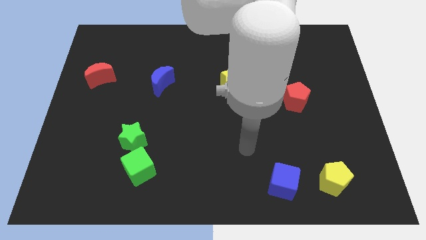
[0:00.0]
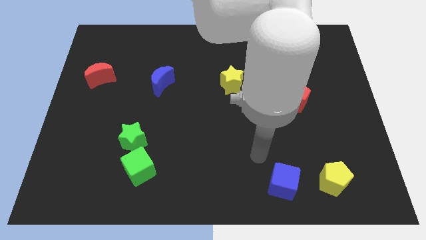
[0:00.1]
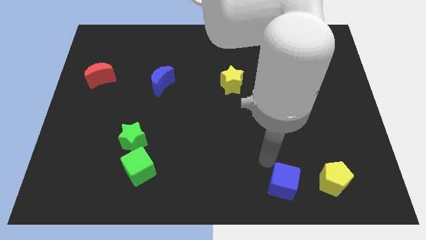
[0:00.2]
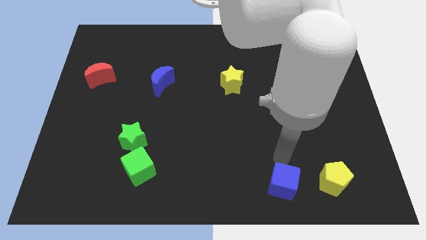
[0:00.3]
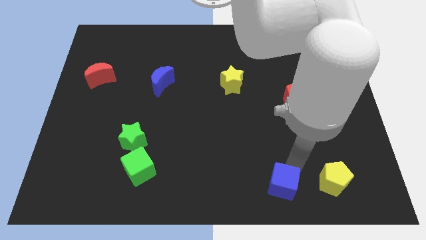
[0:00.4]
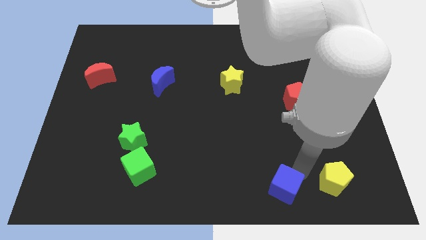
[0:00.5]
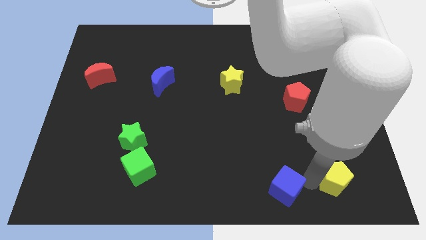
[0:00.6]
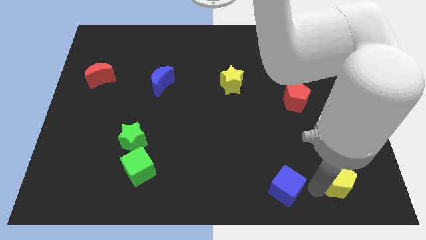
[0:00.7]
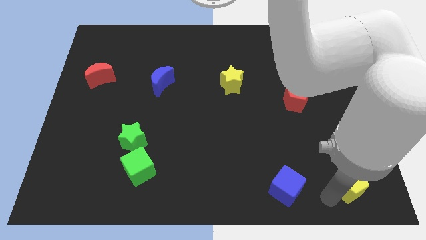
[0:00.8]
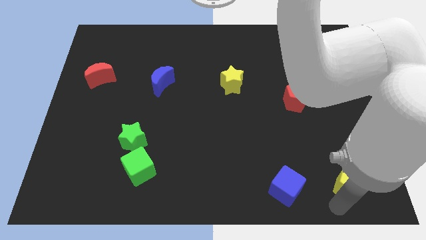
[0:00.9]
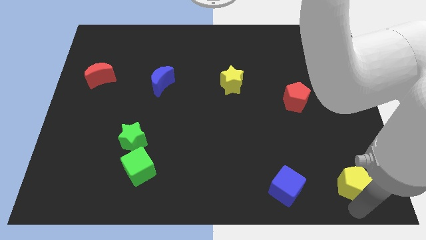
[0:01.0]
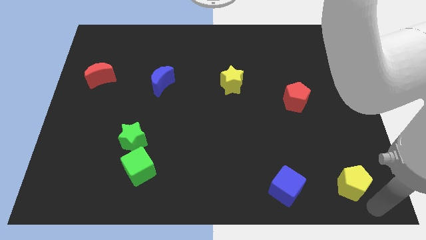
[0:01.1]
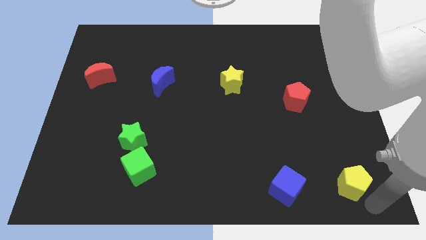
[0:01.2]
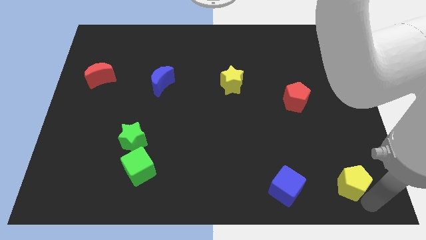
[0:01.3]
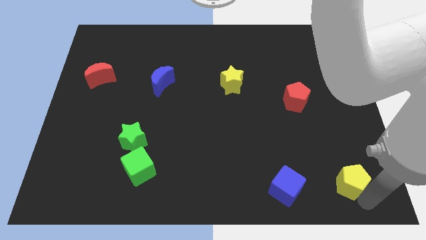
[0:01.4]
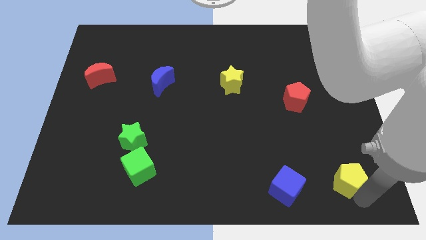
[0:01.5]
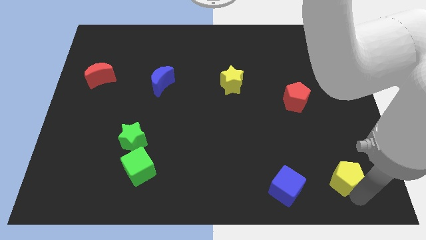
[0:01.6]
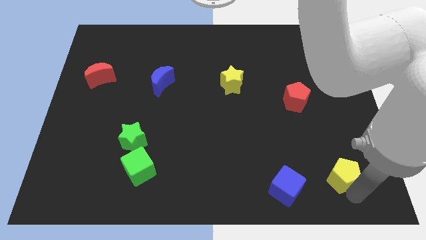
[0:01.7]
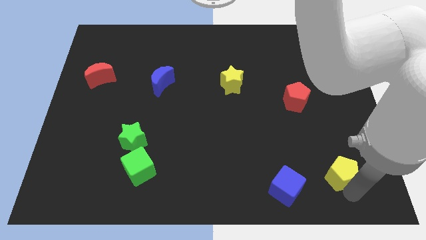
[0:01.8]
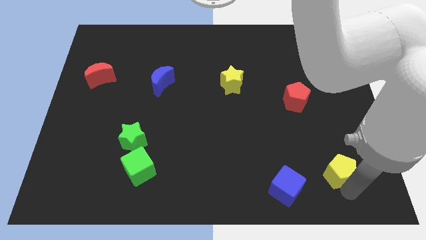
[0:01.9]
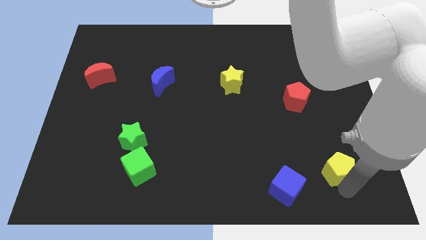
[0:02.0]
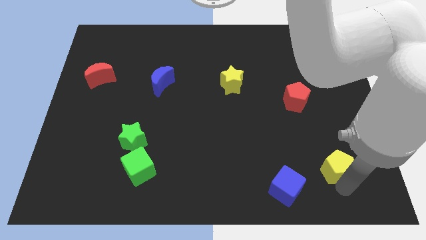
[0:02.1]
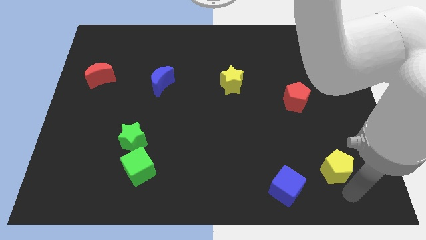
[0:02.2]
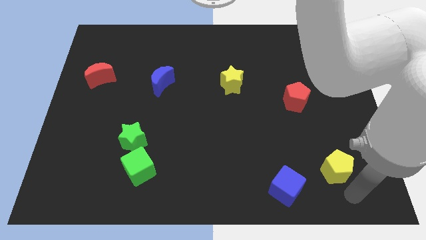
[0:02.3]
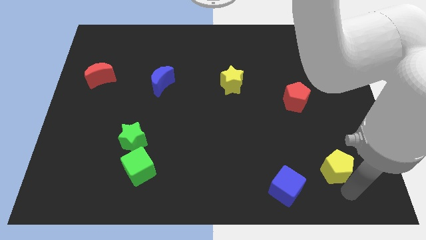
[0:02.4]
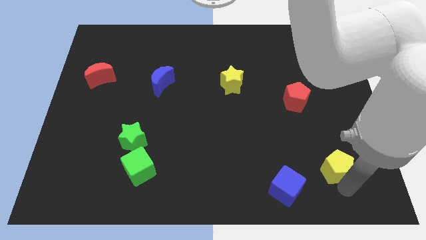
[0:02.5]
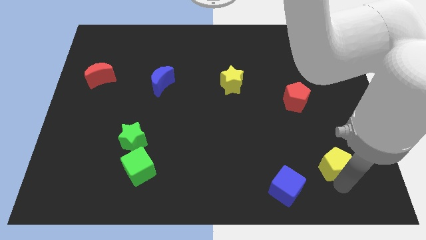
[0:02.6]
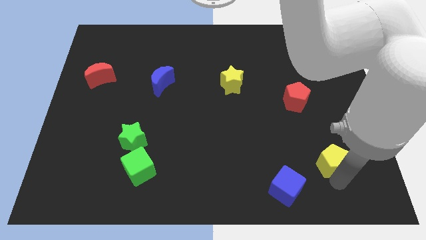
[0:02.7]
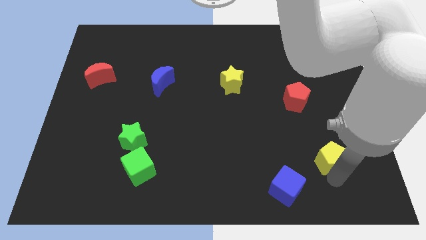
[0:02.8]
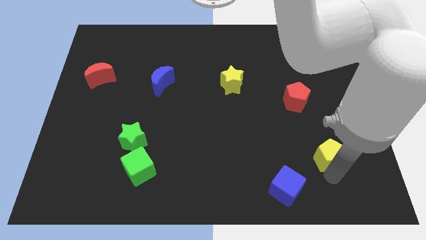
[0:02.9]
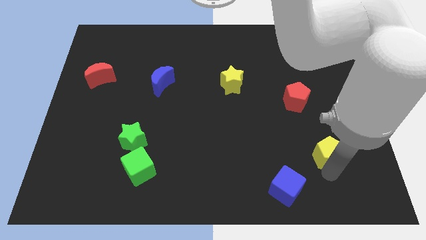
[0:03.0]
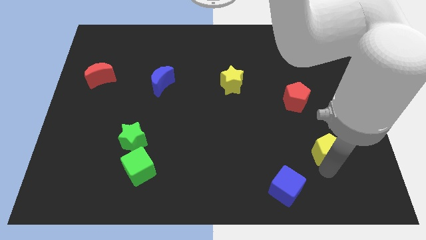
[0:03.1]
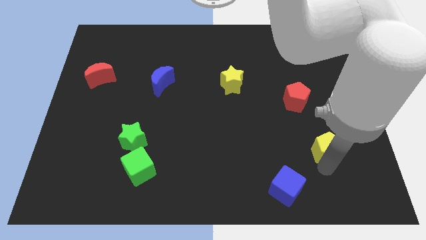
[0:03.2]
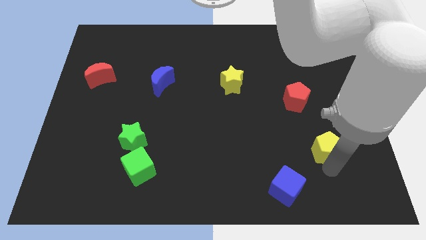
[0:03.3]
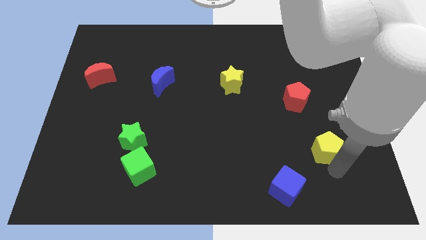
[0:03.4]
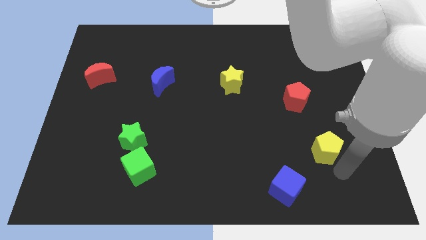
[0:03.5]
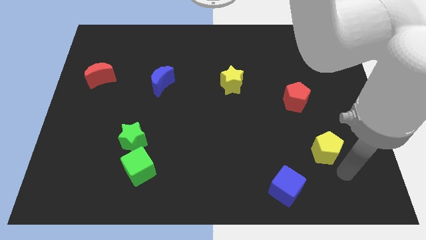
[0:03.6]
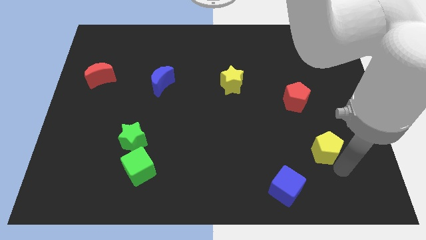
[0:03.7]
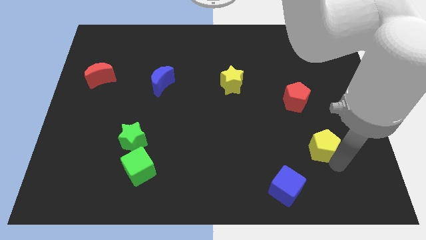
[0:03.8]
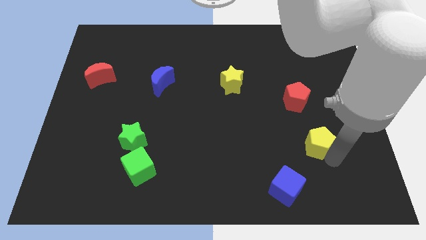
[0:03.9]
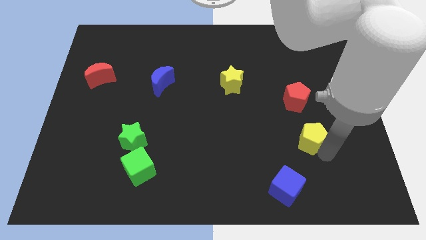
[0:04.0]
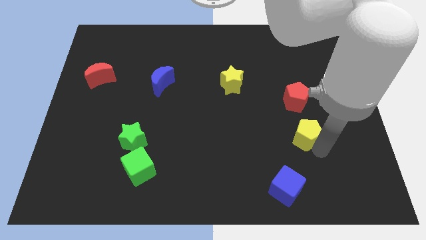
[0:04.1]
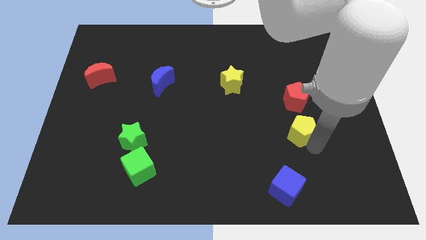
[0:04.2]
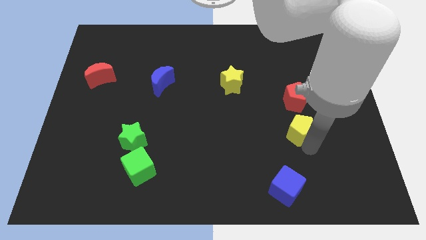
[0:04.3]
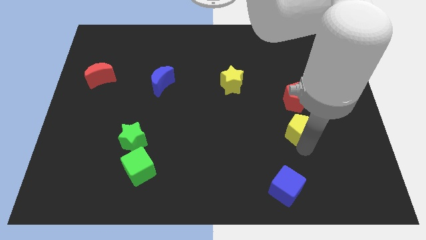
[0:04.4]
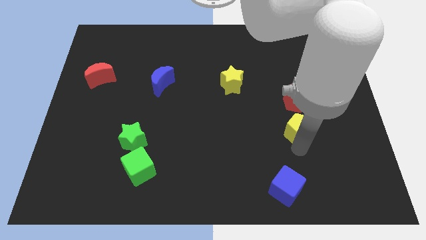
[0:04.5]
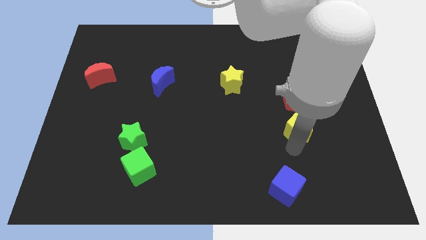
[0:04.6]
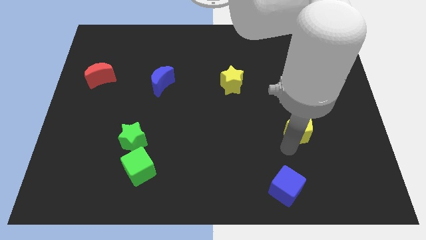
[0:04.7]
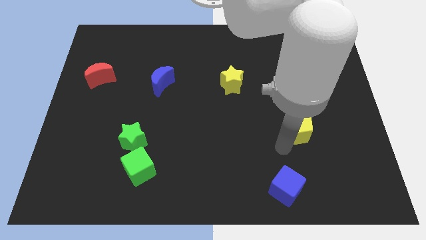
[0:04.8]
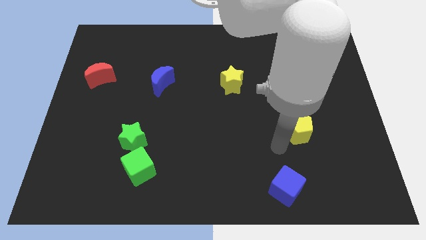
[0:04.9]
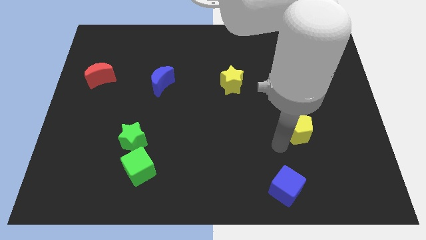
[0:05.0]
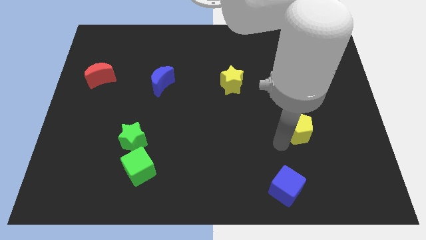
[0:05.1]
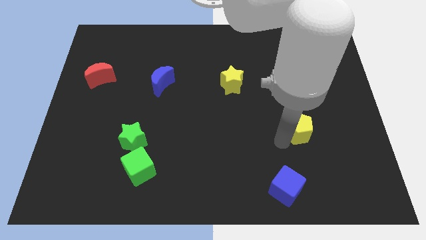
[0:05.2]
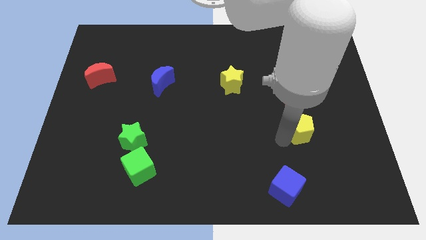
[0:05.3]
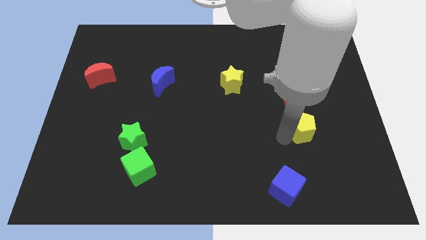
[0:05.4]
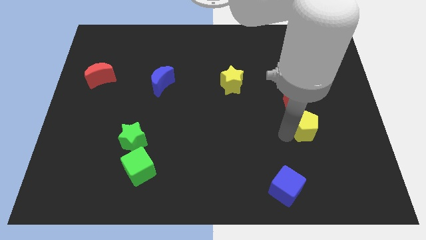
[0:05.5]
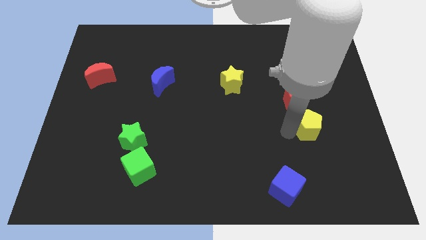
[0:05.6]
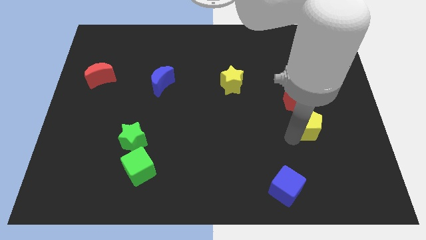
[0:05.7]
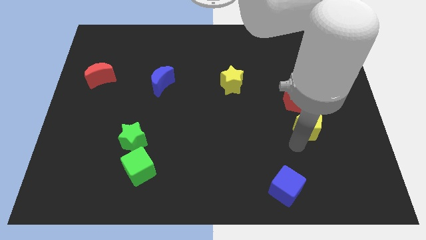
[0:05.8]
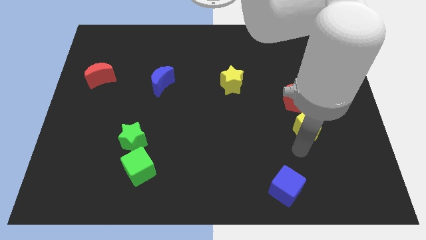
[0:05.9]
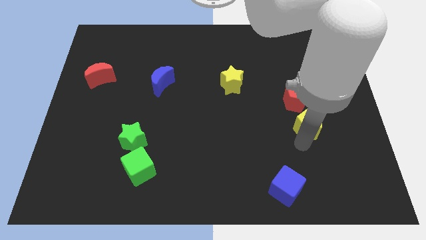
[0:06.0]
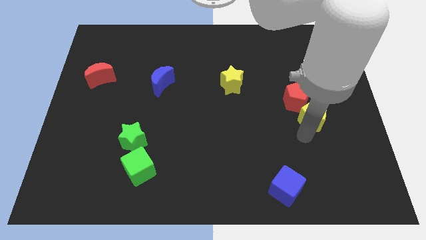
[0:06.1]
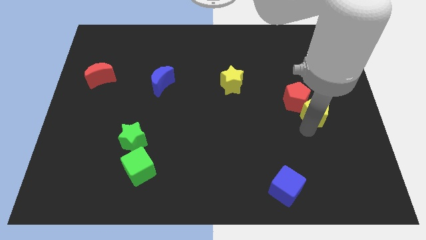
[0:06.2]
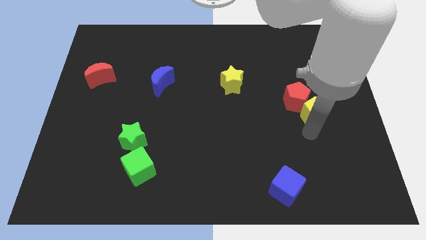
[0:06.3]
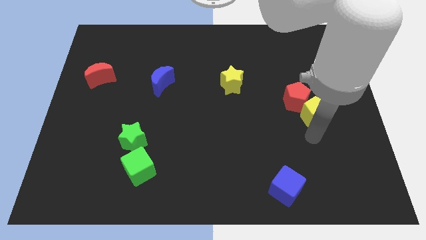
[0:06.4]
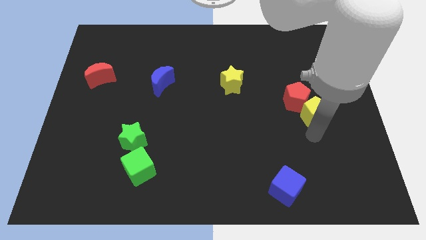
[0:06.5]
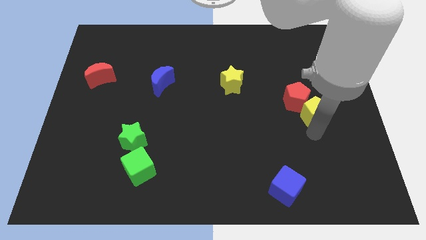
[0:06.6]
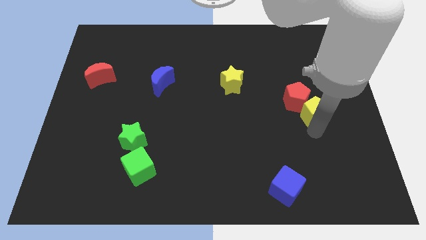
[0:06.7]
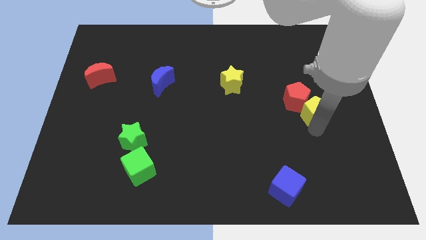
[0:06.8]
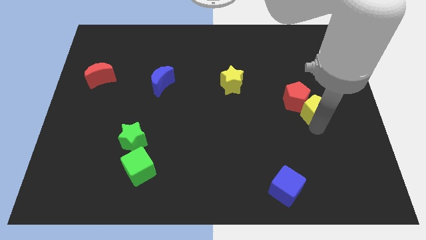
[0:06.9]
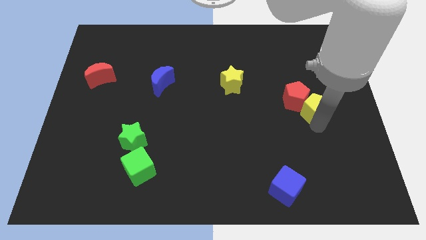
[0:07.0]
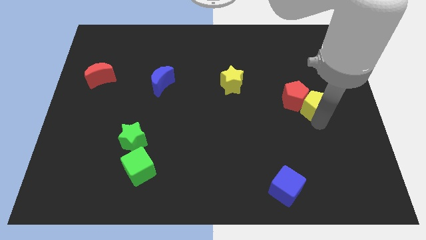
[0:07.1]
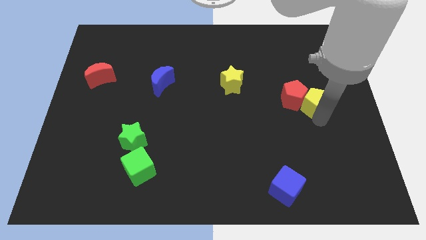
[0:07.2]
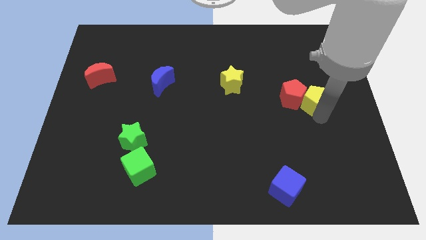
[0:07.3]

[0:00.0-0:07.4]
slide the yellow pentagon upwards

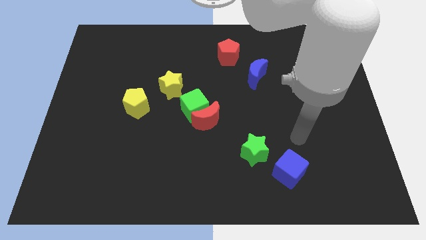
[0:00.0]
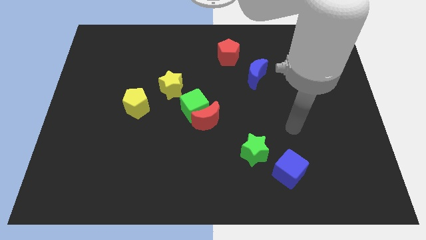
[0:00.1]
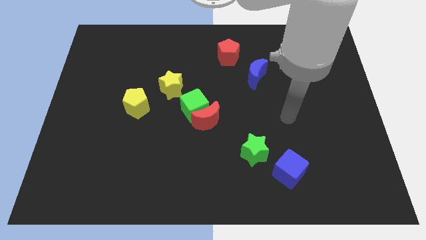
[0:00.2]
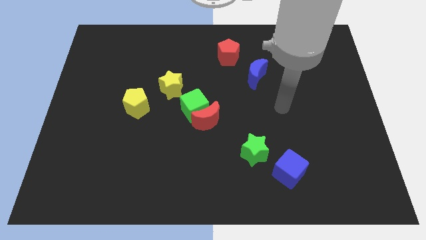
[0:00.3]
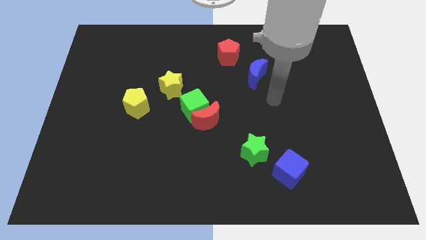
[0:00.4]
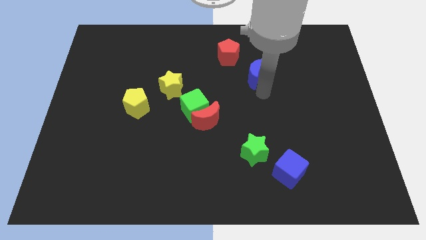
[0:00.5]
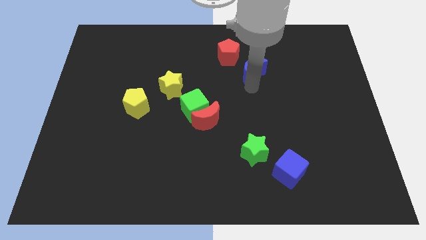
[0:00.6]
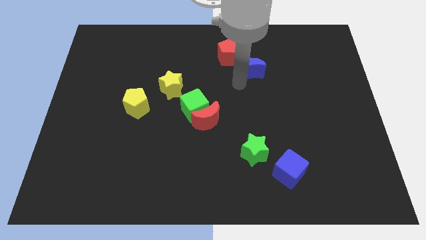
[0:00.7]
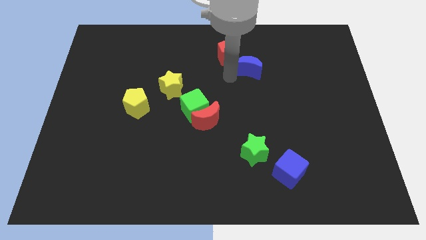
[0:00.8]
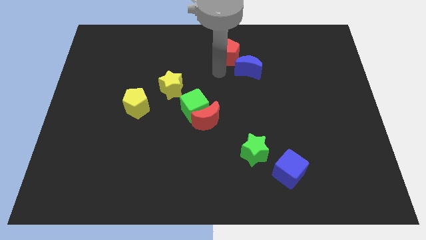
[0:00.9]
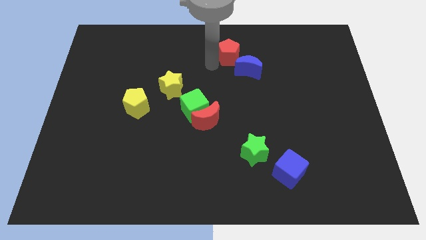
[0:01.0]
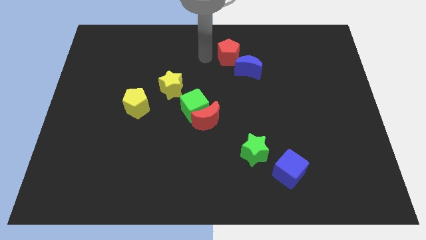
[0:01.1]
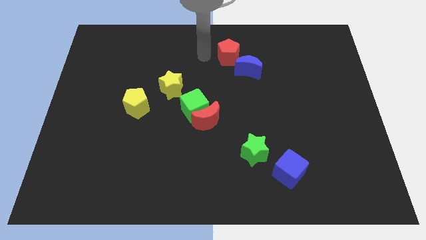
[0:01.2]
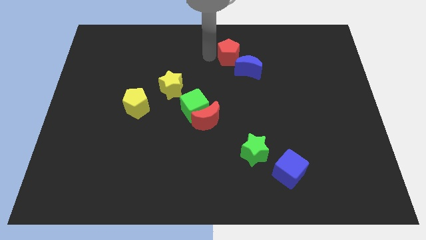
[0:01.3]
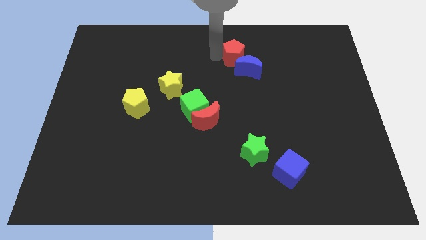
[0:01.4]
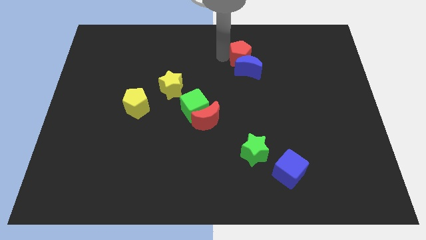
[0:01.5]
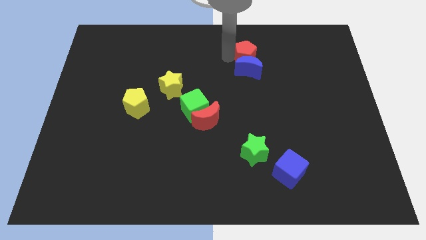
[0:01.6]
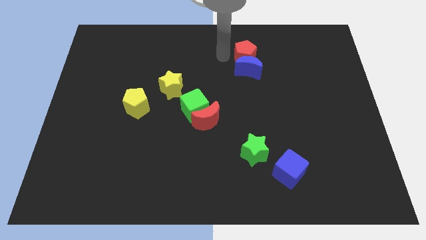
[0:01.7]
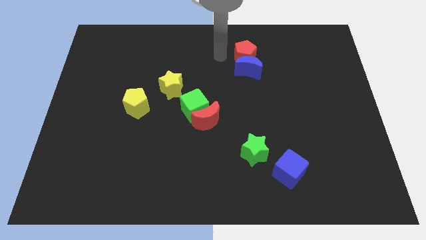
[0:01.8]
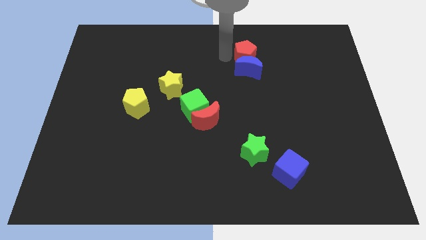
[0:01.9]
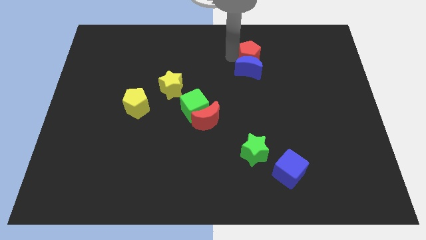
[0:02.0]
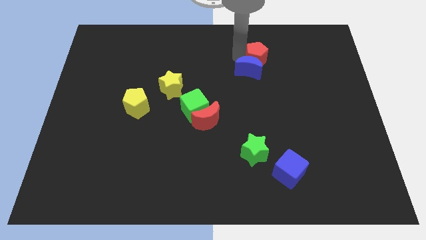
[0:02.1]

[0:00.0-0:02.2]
slide the red pentagon a bit right
